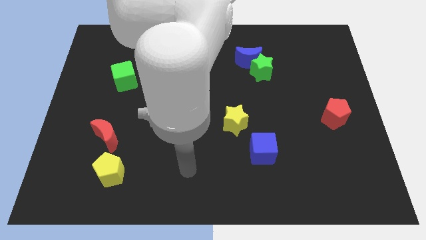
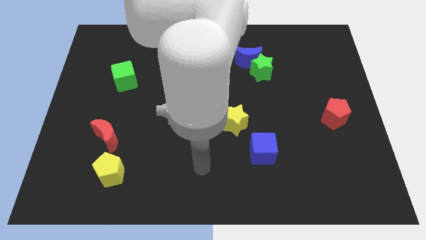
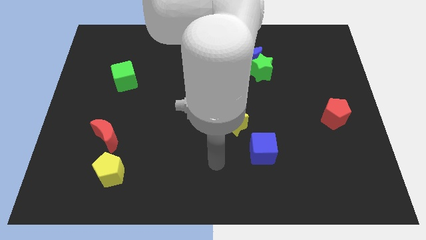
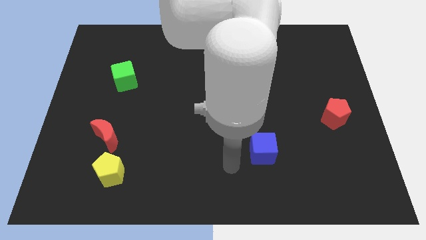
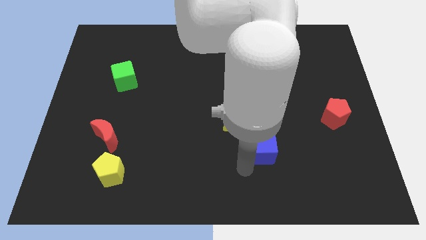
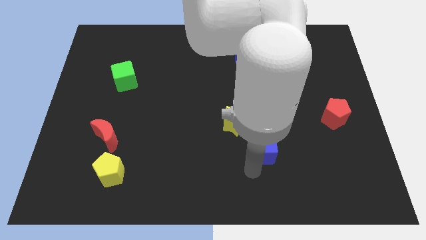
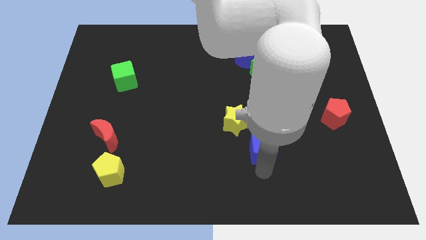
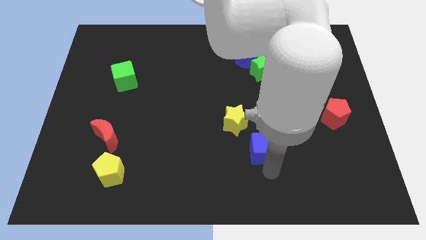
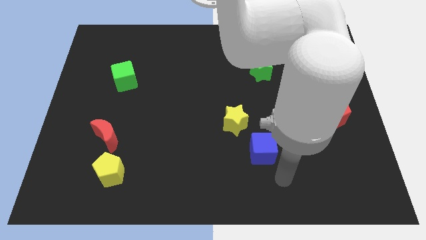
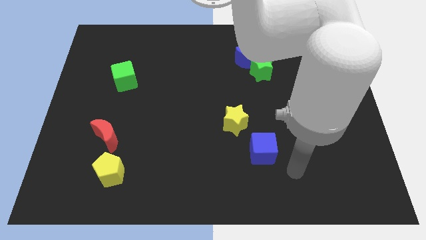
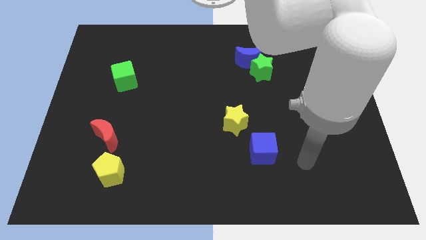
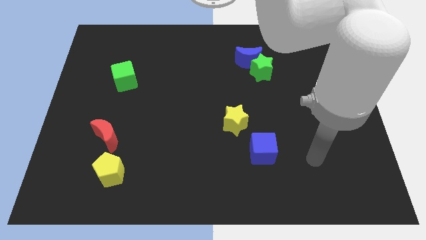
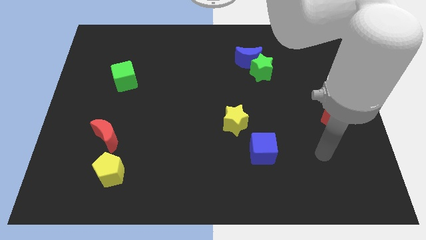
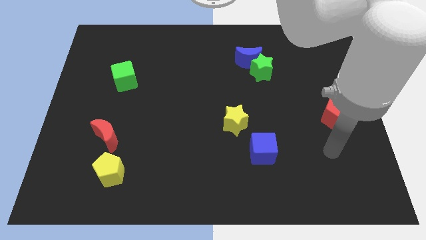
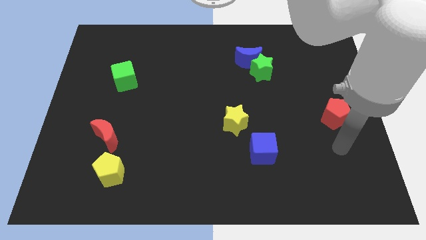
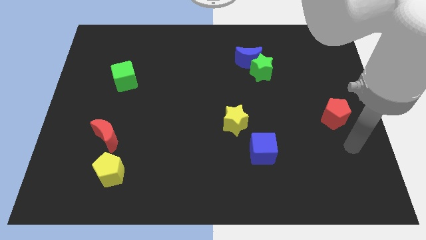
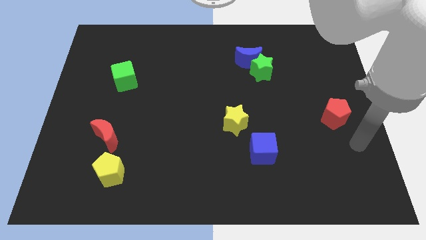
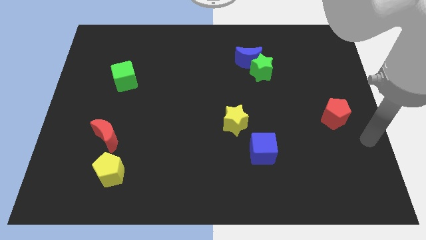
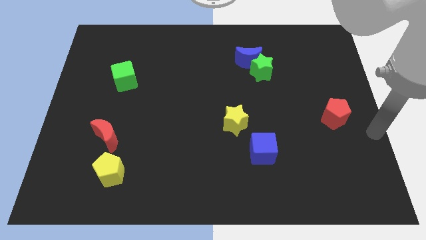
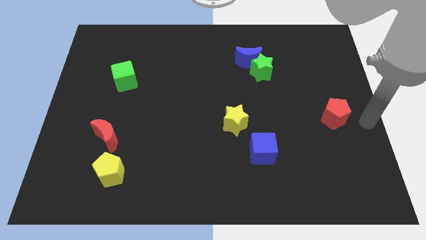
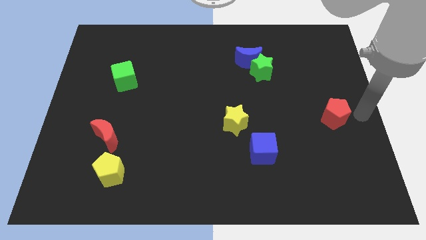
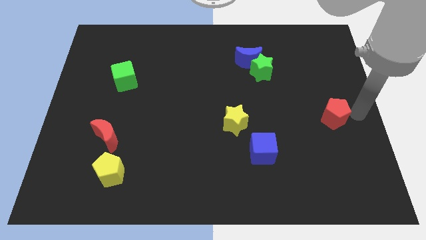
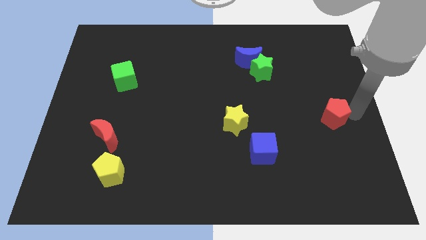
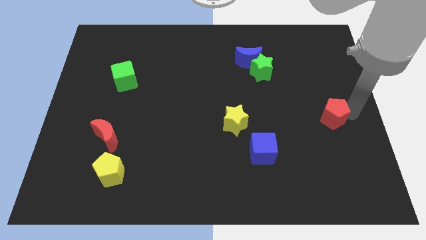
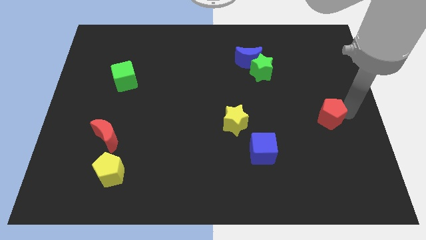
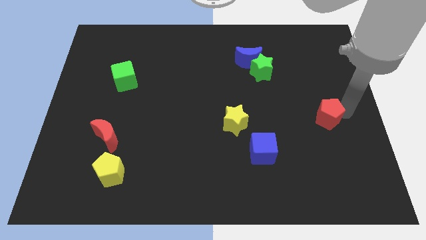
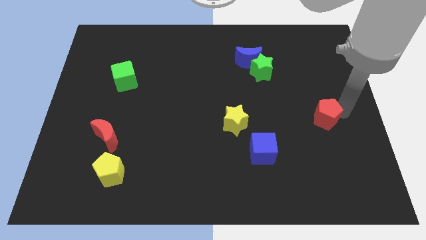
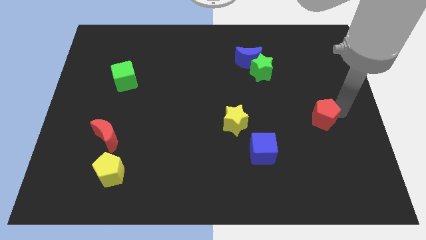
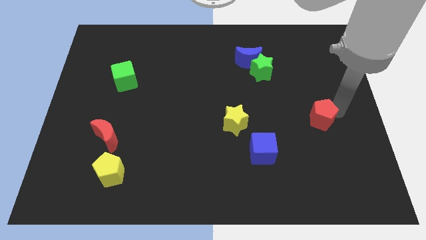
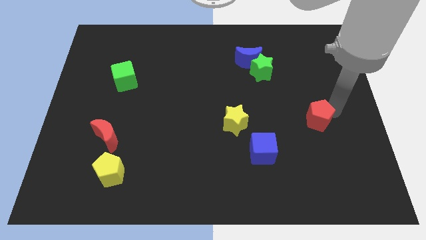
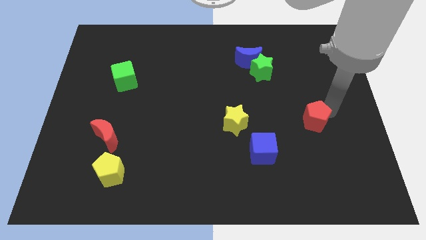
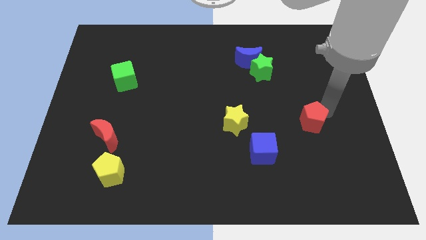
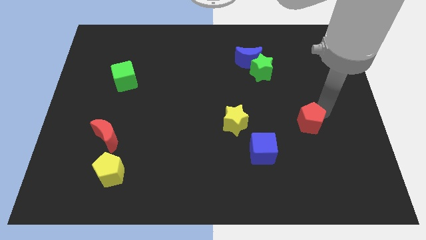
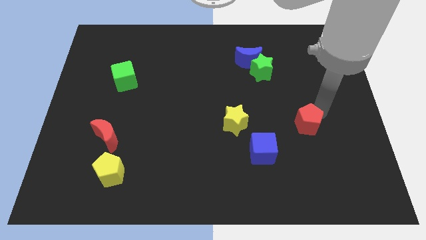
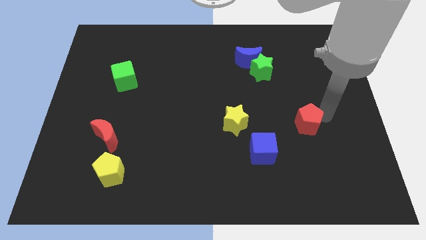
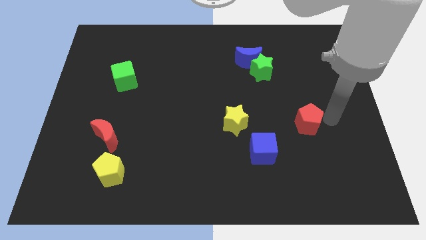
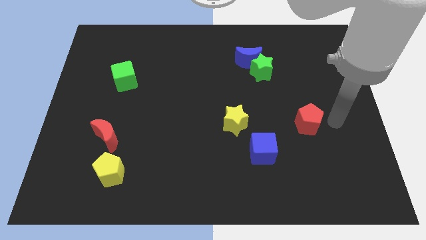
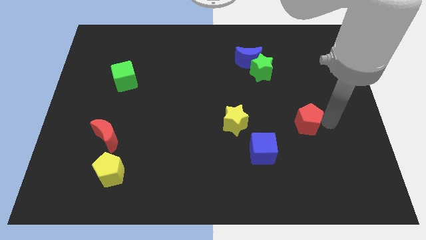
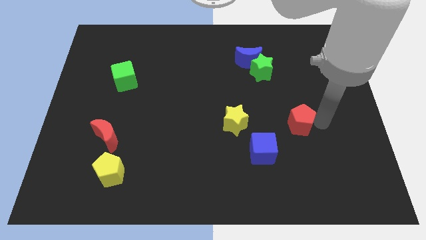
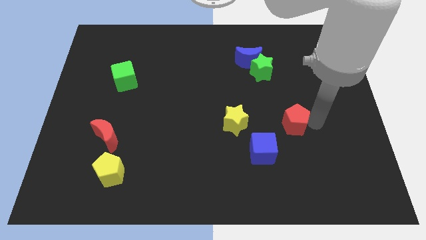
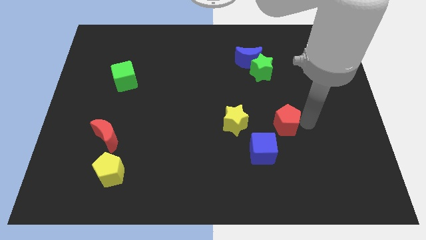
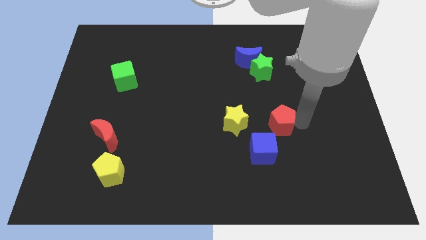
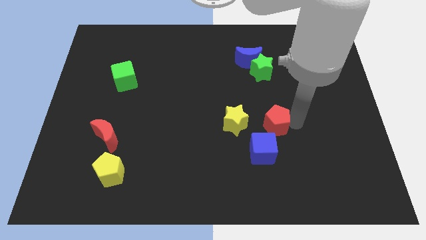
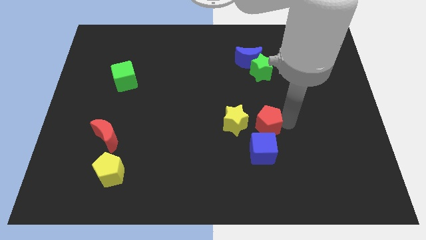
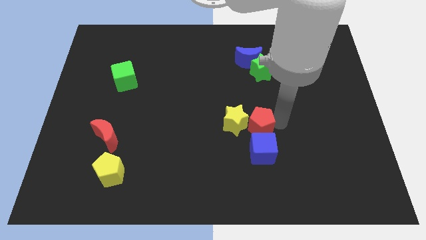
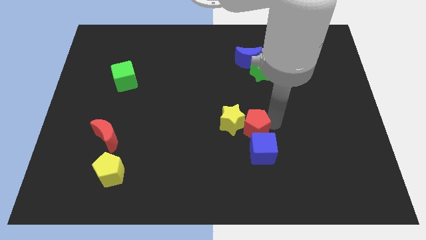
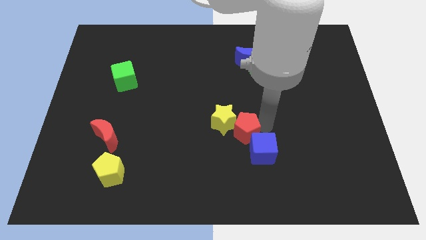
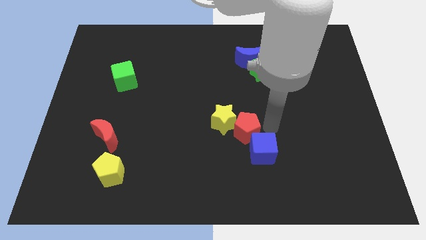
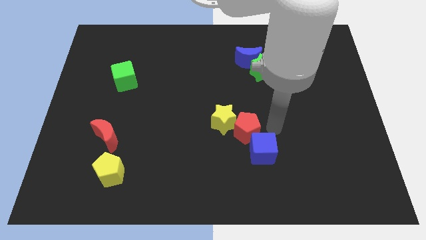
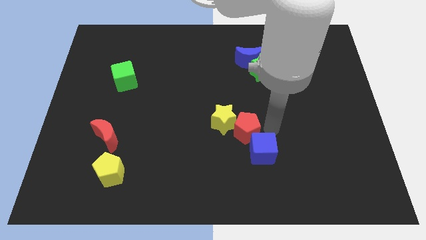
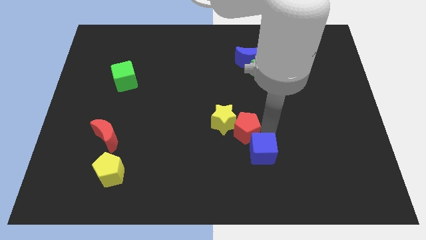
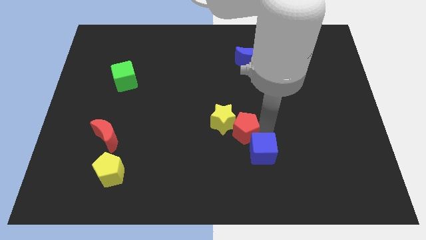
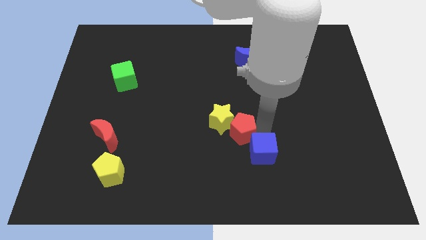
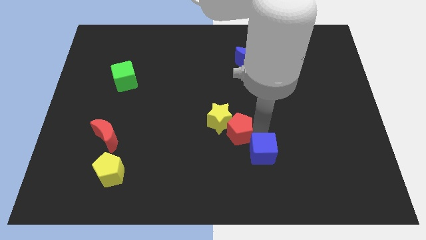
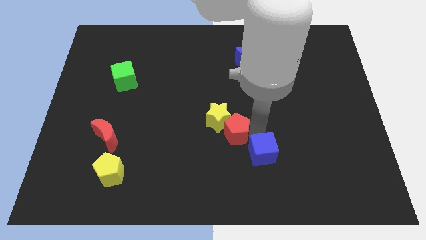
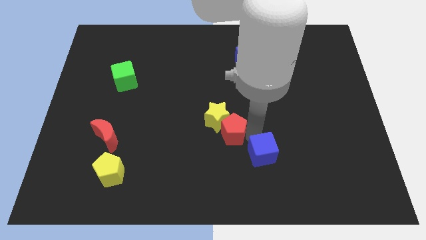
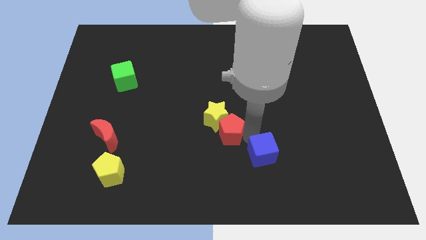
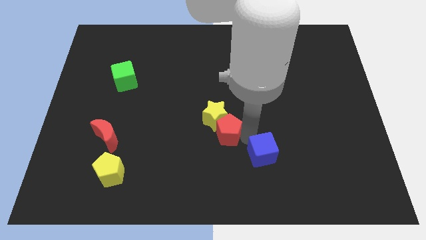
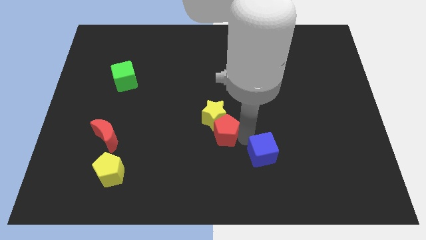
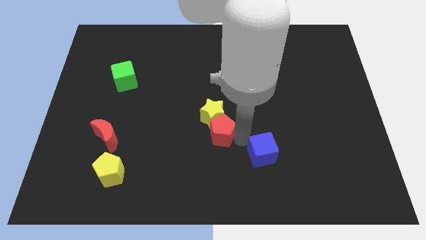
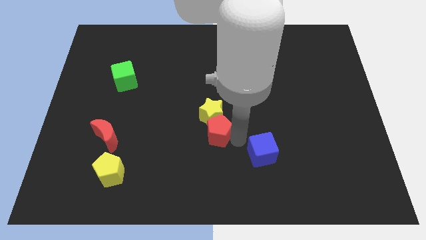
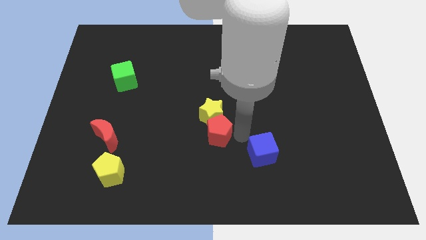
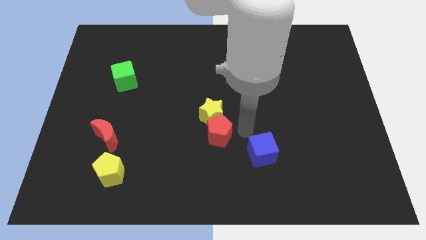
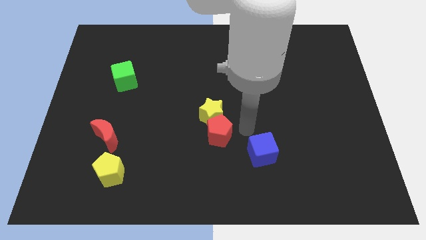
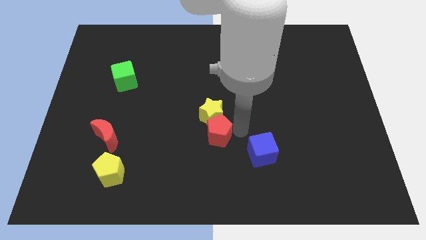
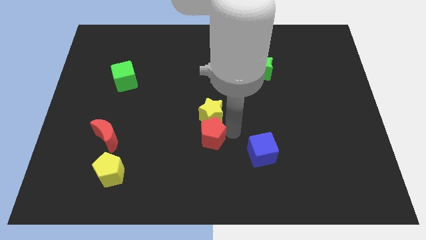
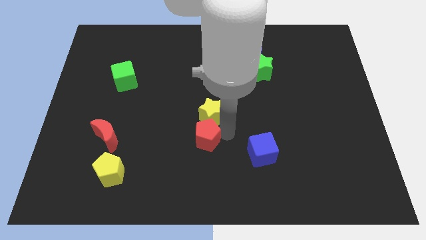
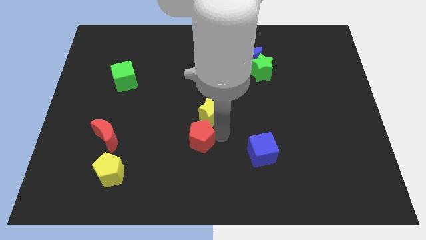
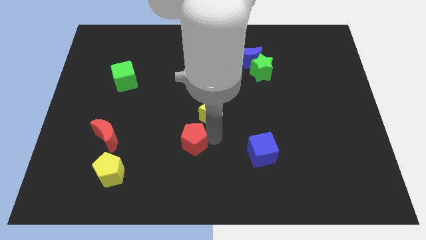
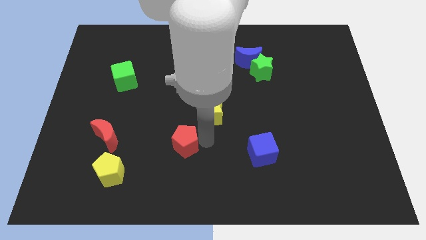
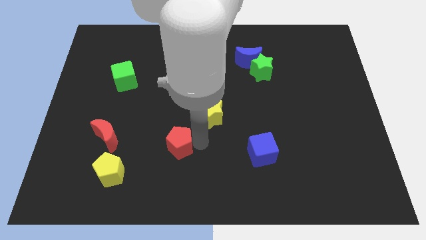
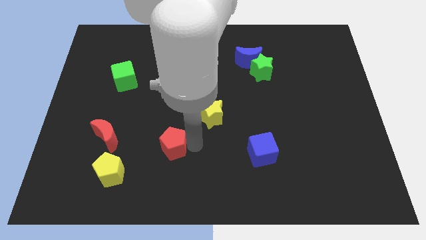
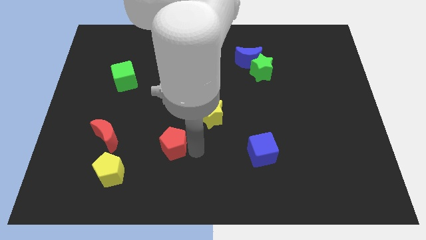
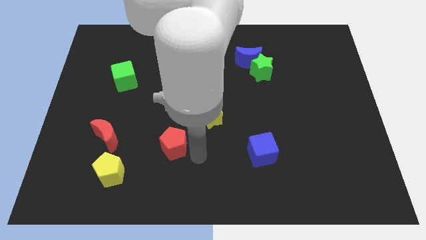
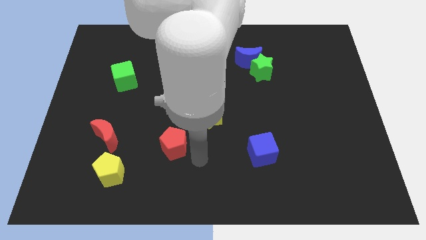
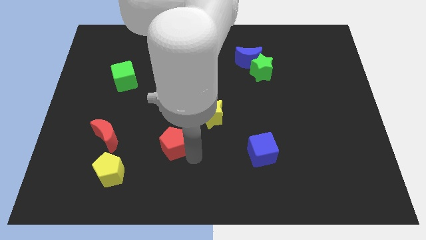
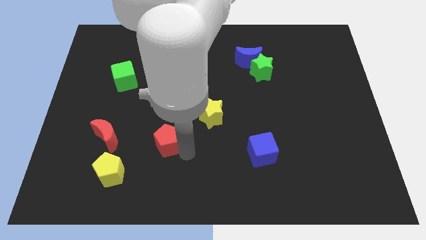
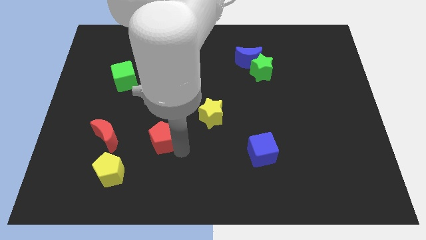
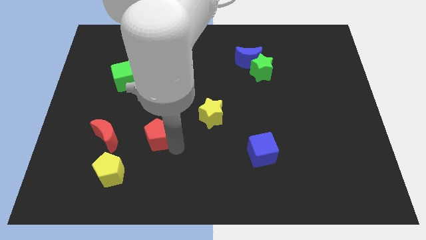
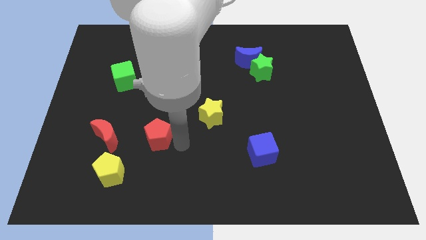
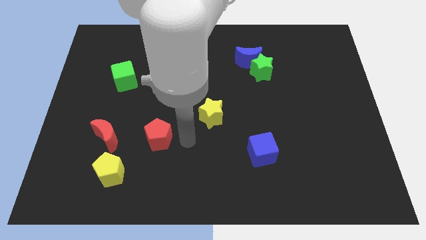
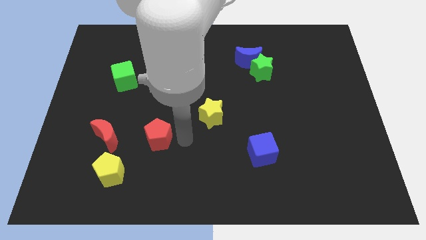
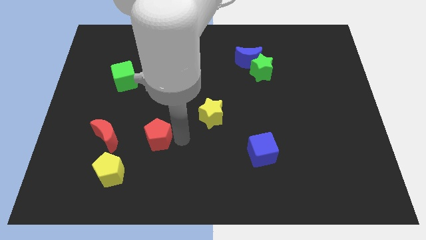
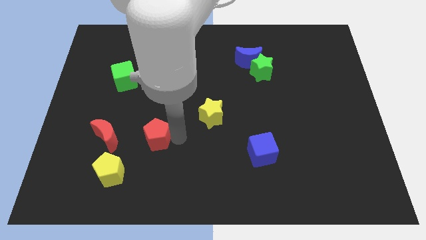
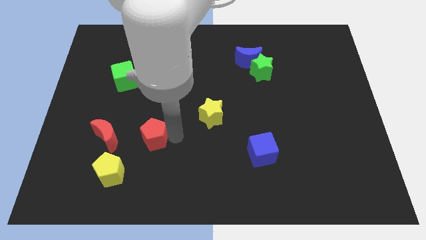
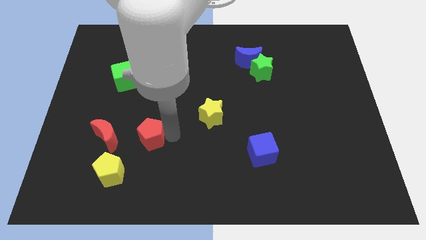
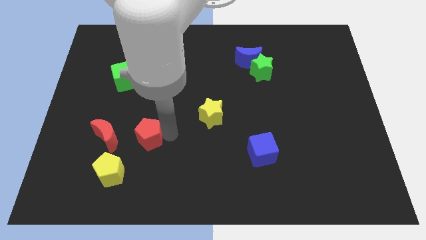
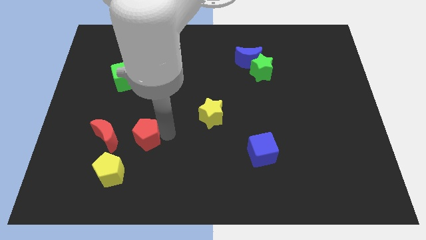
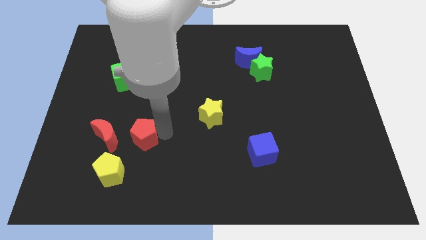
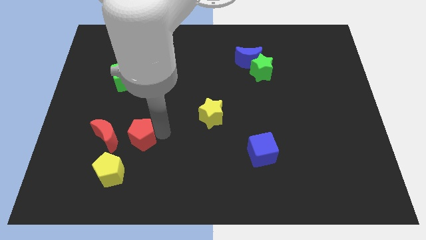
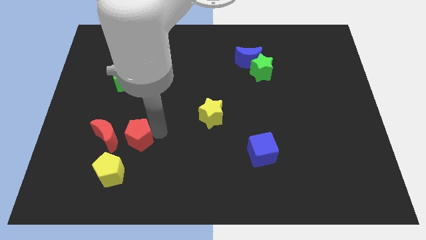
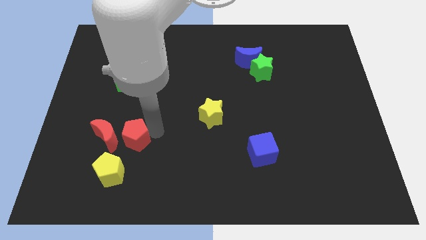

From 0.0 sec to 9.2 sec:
slide the red pentagon next to the red moon
